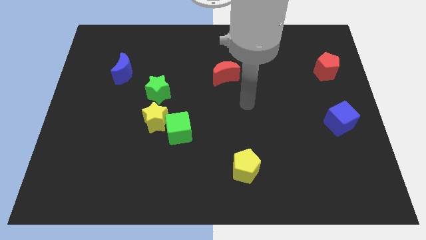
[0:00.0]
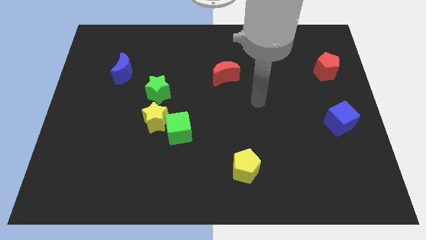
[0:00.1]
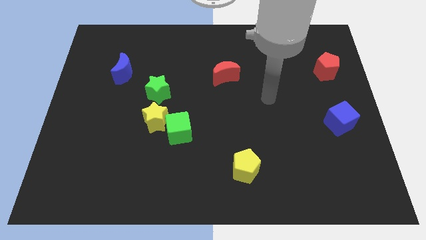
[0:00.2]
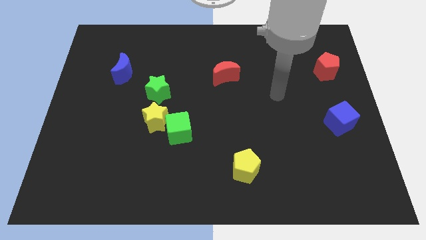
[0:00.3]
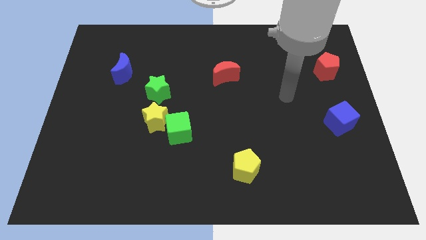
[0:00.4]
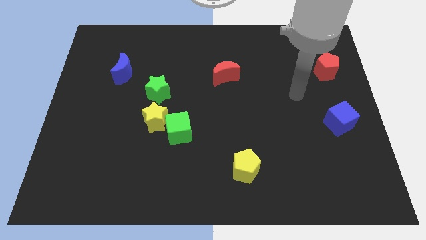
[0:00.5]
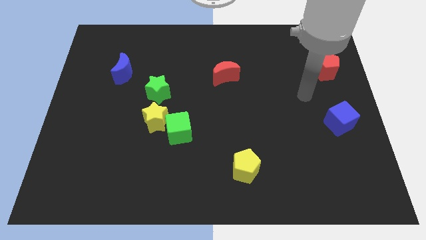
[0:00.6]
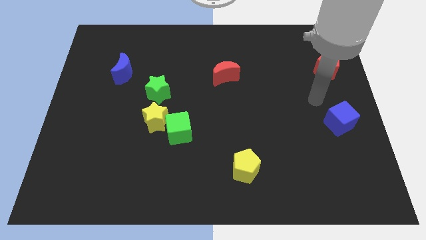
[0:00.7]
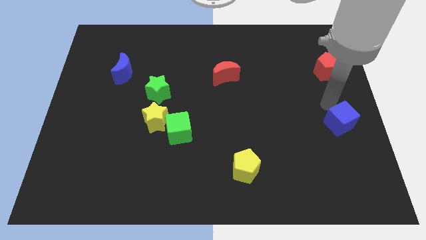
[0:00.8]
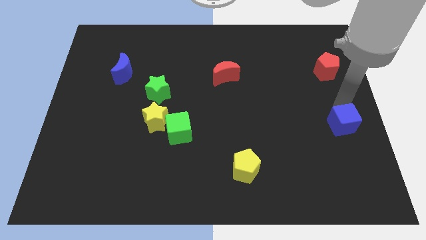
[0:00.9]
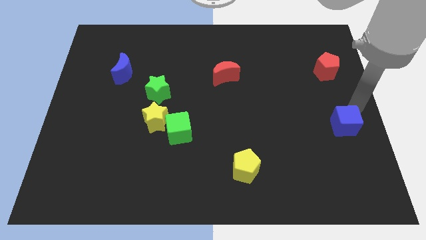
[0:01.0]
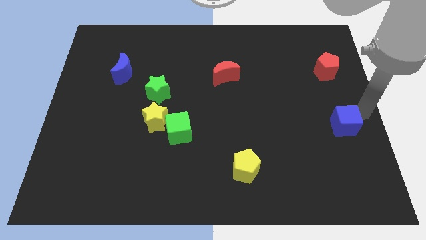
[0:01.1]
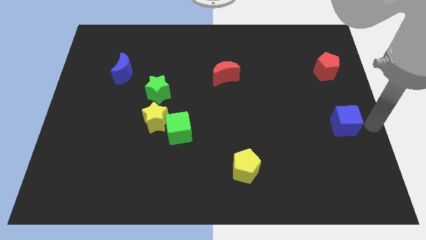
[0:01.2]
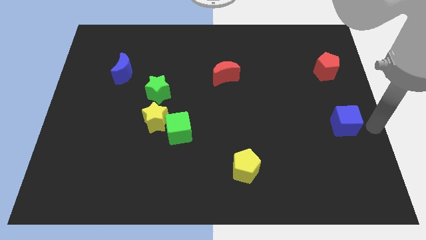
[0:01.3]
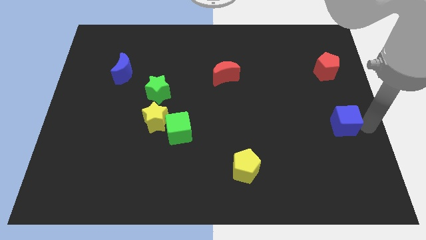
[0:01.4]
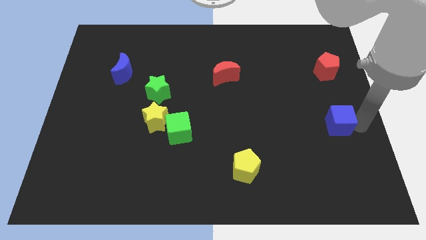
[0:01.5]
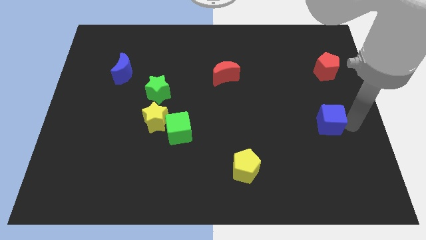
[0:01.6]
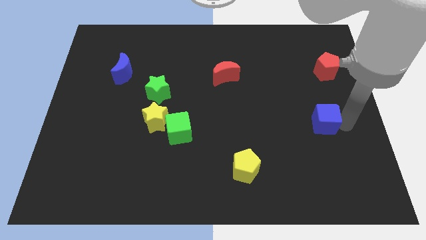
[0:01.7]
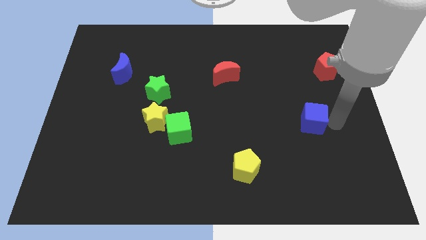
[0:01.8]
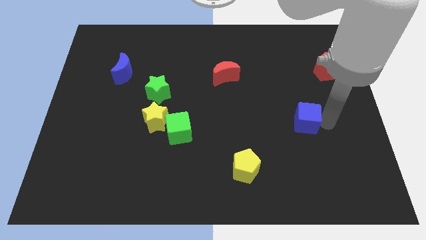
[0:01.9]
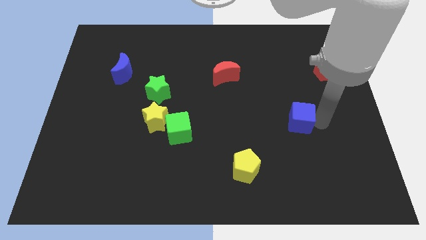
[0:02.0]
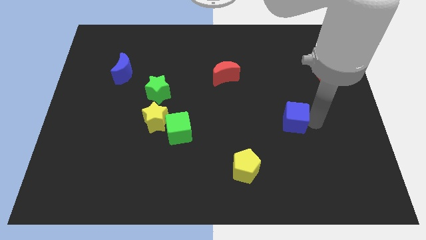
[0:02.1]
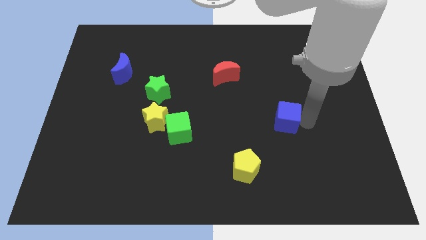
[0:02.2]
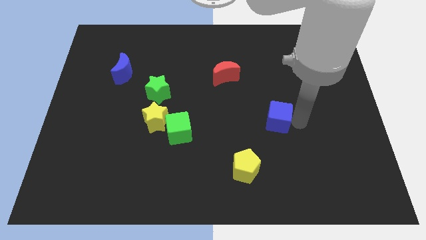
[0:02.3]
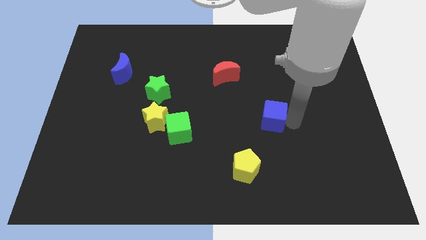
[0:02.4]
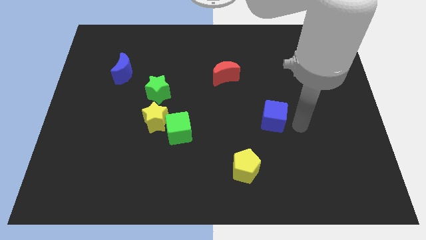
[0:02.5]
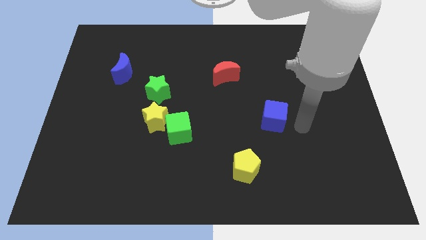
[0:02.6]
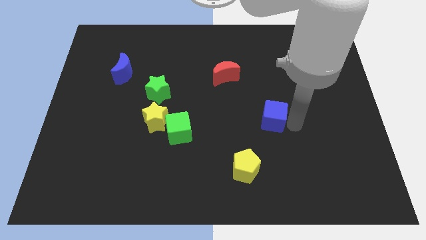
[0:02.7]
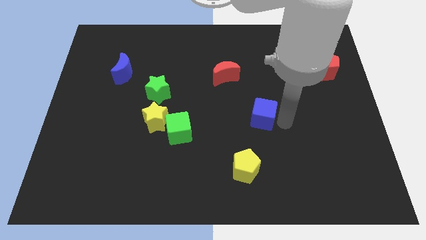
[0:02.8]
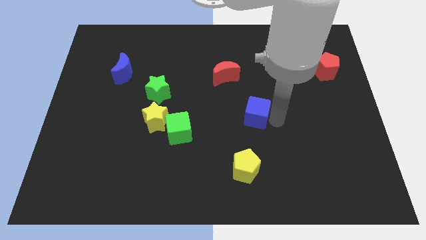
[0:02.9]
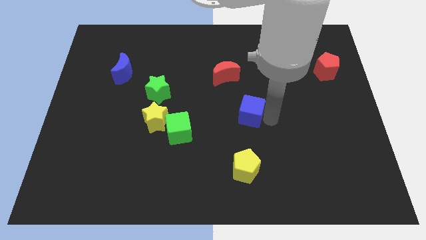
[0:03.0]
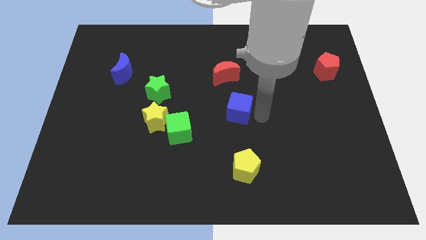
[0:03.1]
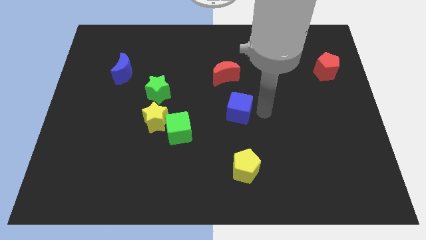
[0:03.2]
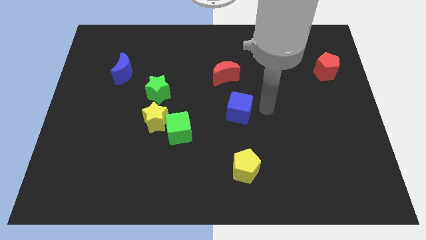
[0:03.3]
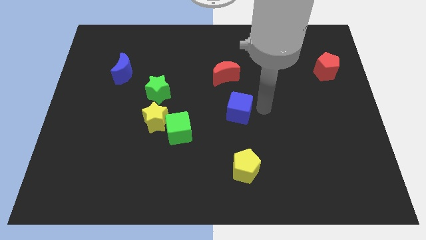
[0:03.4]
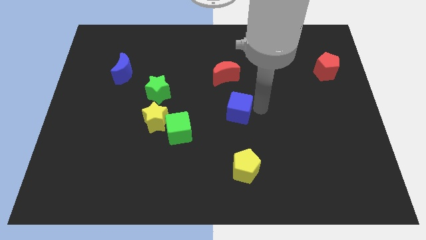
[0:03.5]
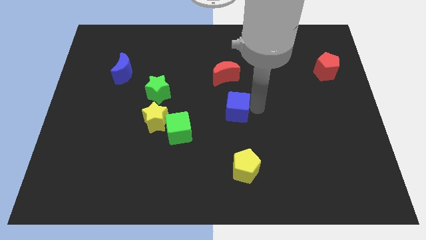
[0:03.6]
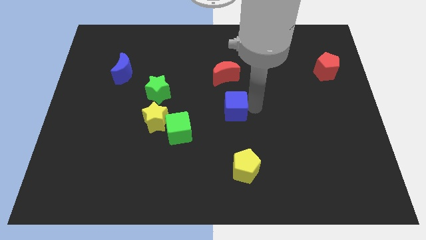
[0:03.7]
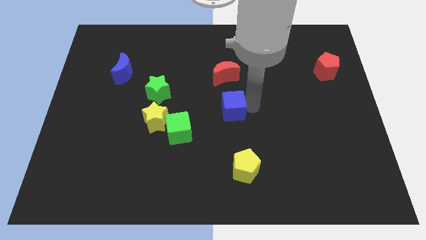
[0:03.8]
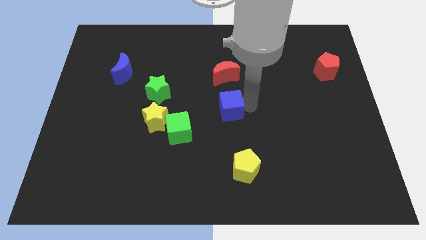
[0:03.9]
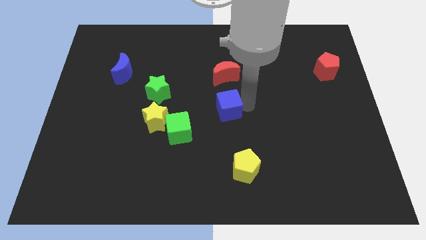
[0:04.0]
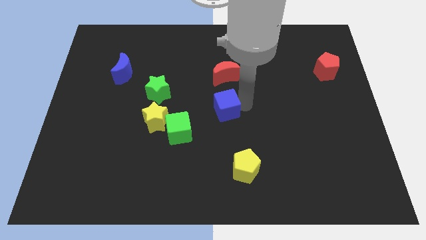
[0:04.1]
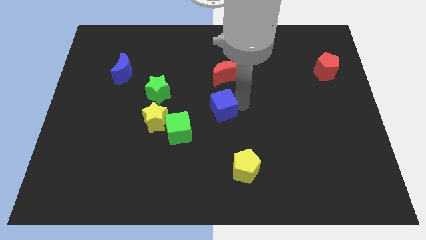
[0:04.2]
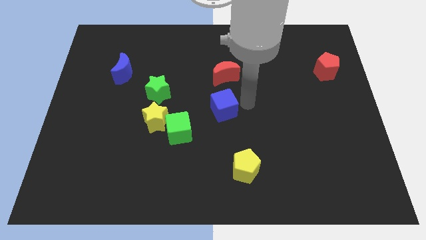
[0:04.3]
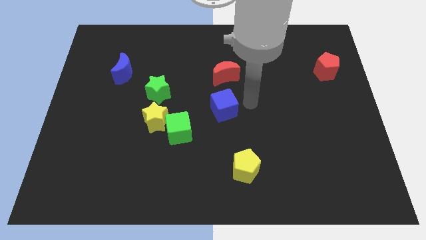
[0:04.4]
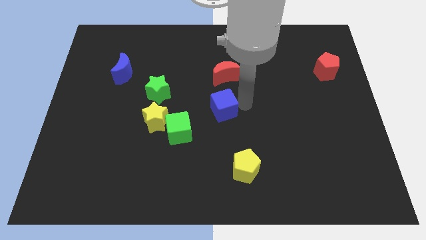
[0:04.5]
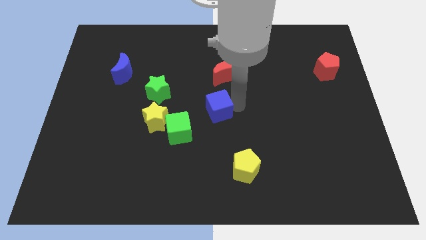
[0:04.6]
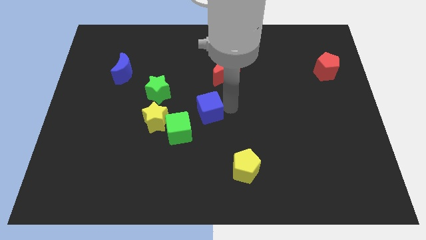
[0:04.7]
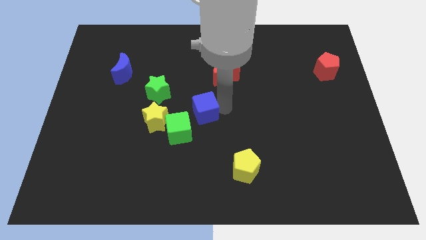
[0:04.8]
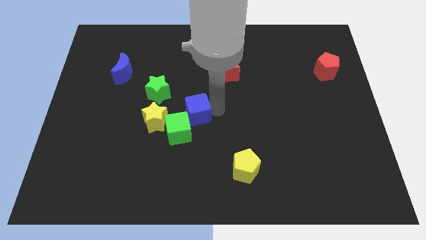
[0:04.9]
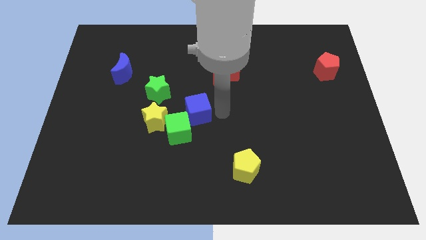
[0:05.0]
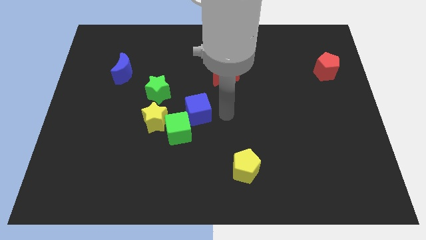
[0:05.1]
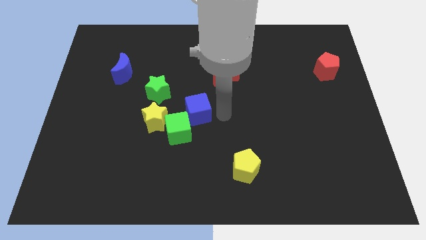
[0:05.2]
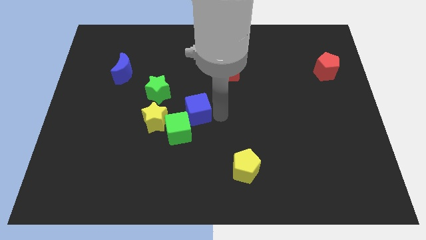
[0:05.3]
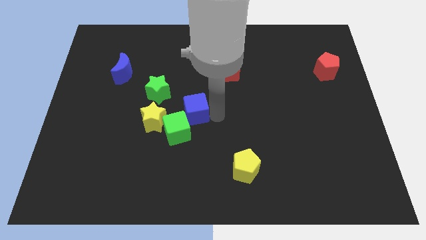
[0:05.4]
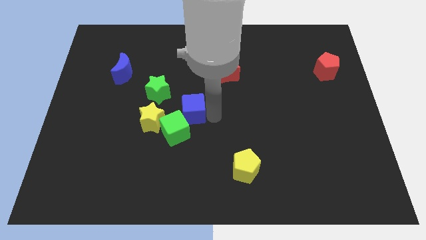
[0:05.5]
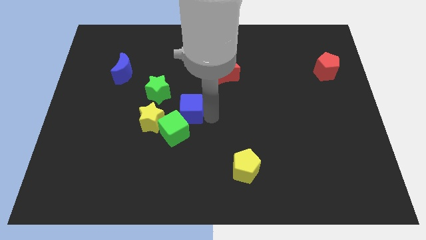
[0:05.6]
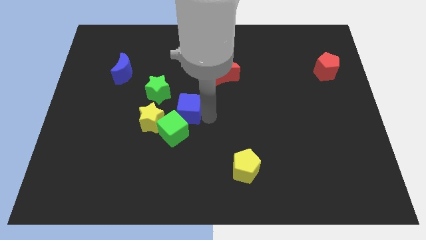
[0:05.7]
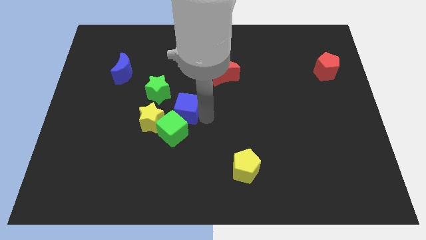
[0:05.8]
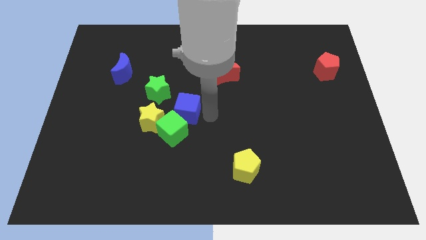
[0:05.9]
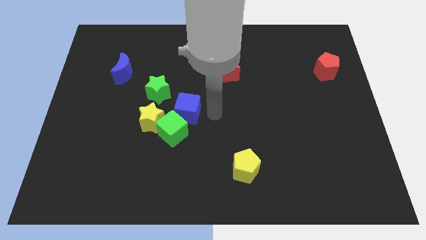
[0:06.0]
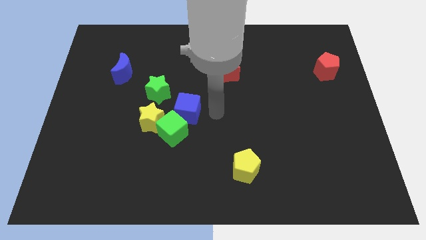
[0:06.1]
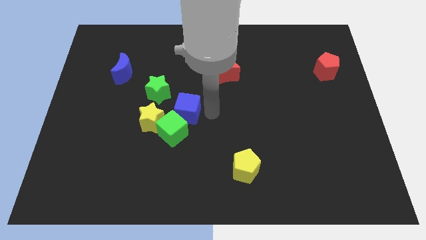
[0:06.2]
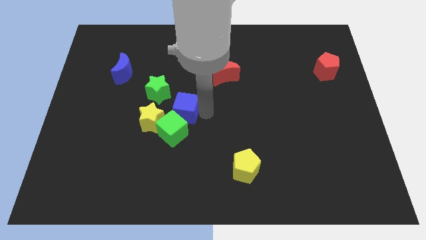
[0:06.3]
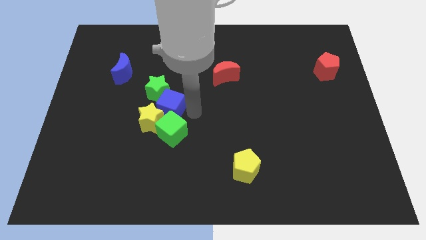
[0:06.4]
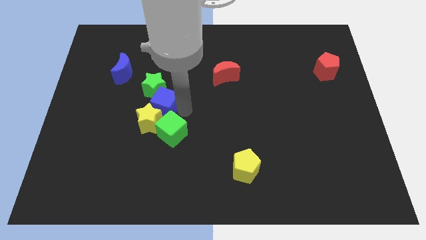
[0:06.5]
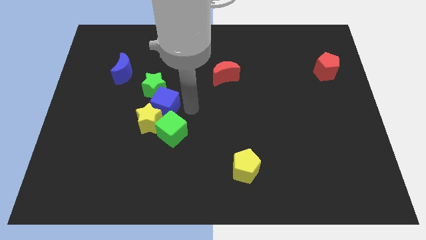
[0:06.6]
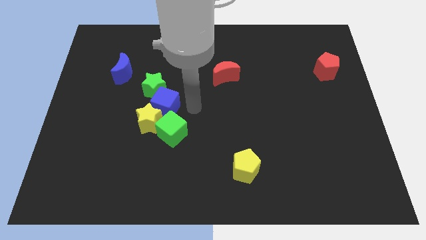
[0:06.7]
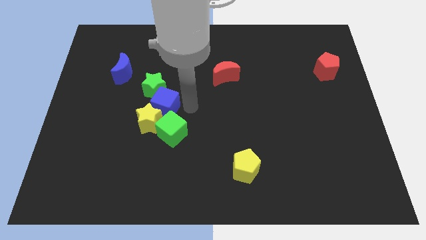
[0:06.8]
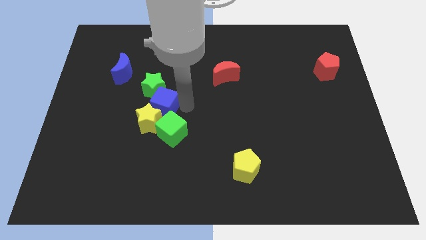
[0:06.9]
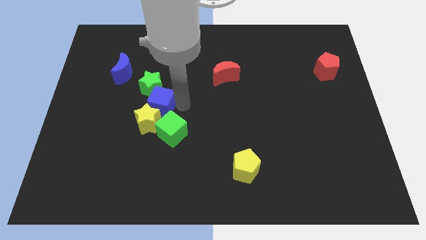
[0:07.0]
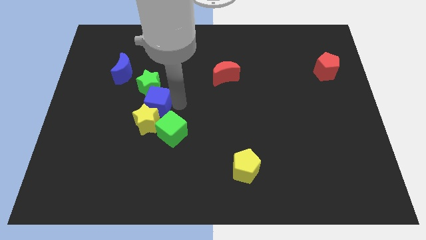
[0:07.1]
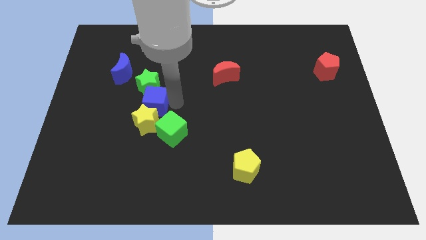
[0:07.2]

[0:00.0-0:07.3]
push the blue cube diagonally up and to the left of the yellow star

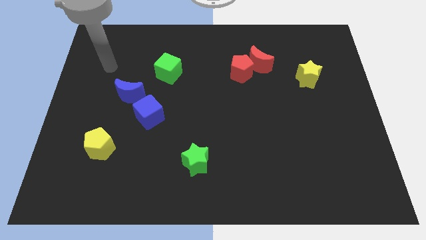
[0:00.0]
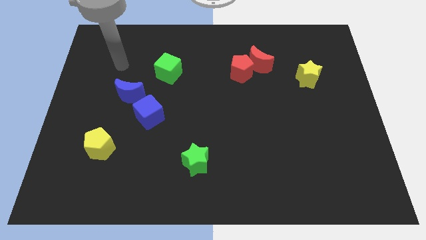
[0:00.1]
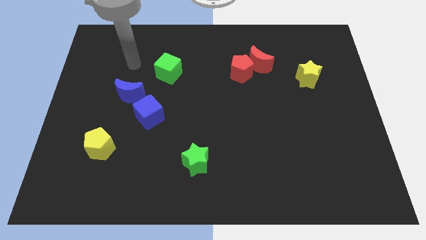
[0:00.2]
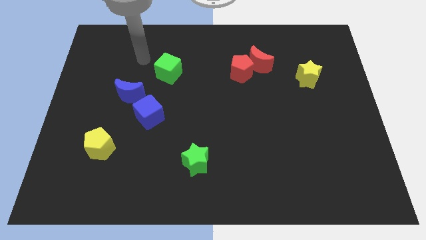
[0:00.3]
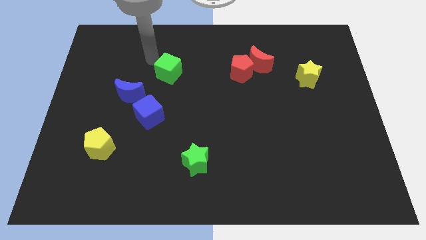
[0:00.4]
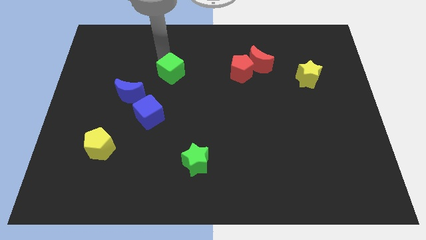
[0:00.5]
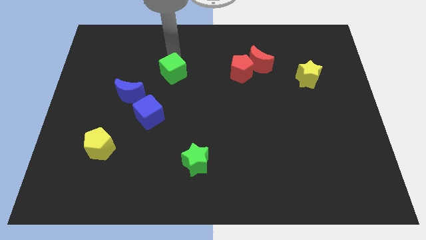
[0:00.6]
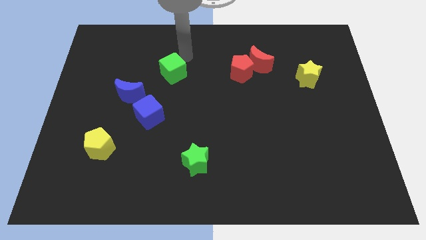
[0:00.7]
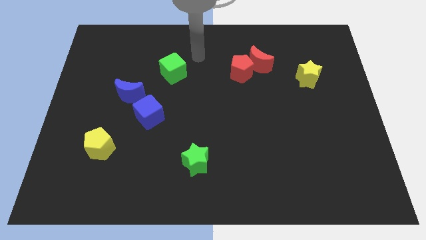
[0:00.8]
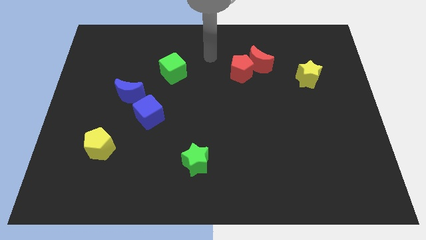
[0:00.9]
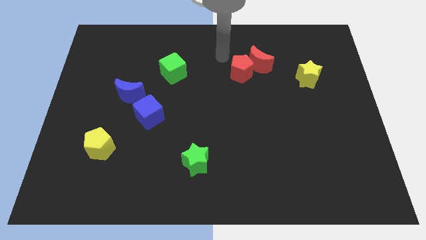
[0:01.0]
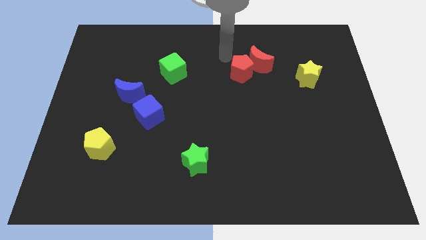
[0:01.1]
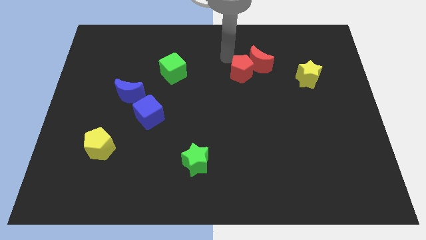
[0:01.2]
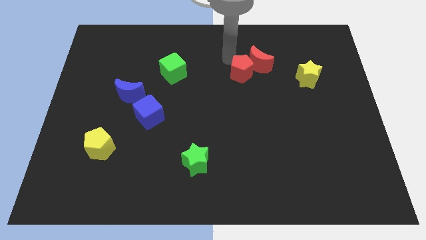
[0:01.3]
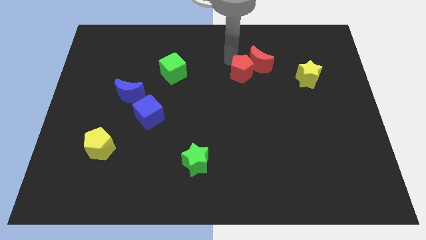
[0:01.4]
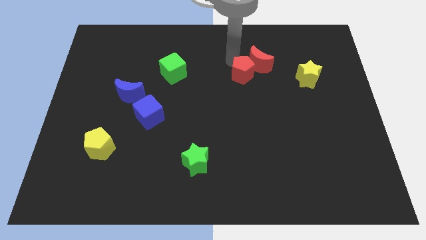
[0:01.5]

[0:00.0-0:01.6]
push the red pentagon to the bottom of the red moon
